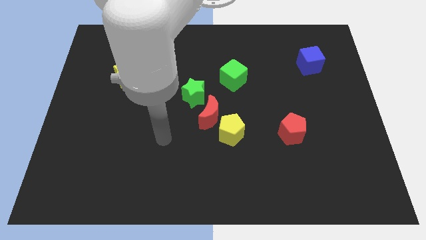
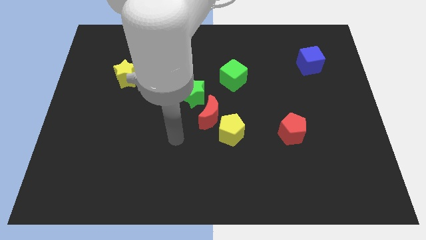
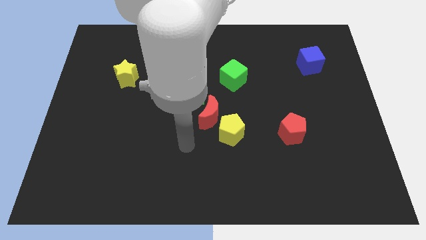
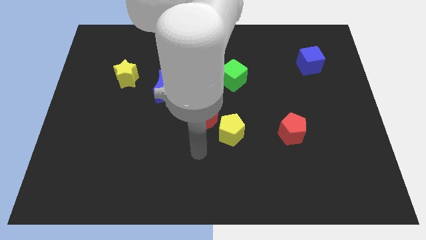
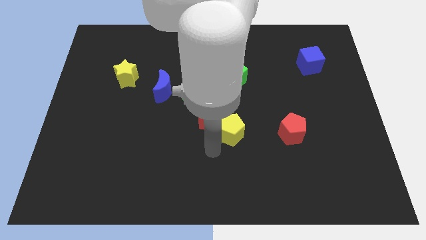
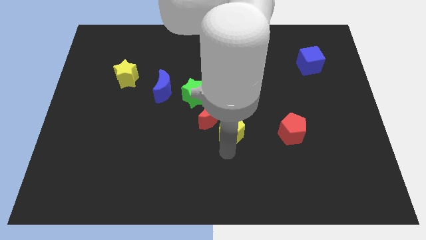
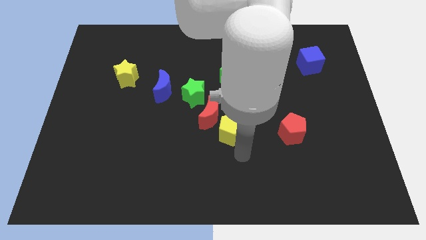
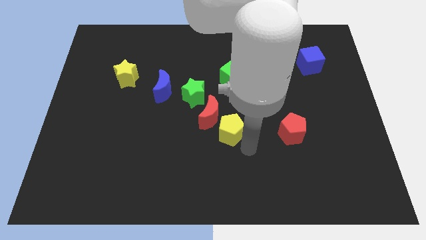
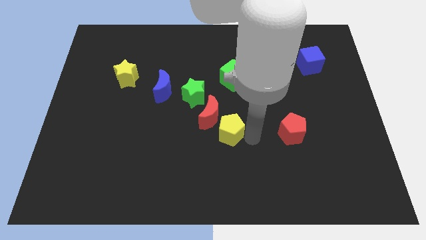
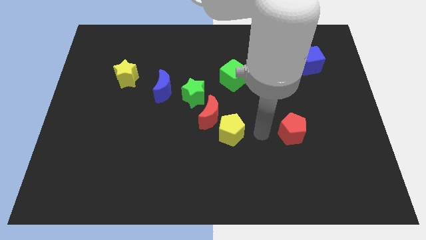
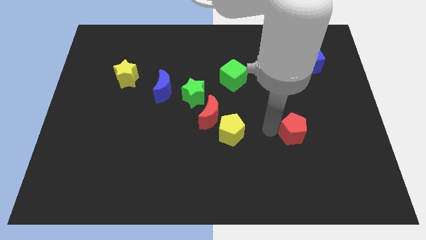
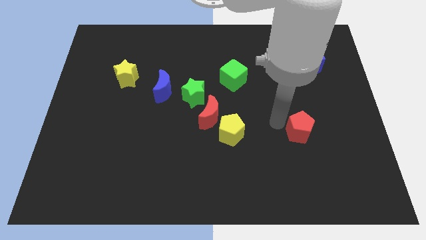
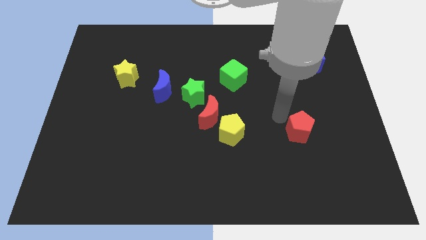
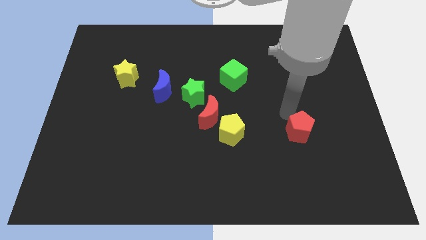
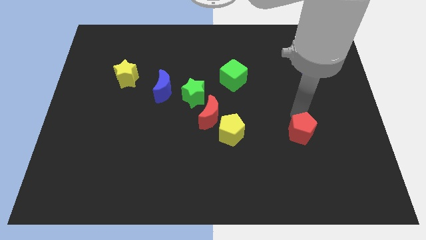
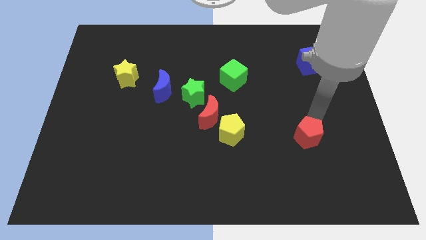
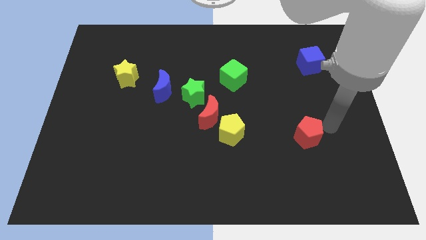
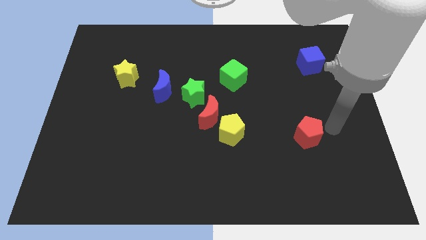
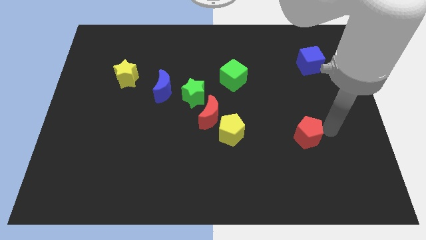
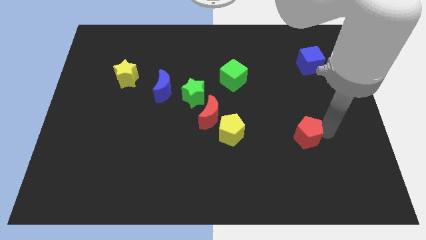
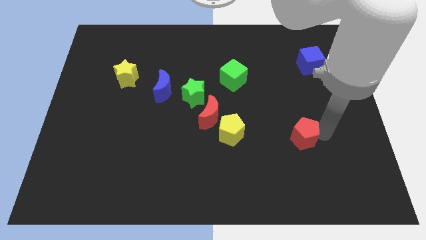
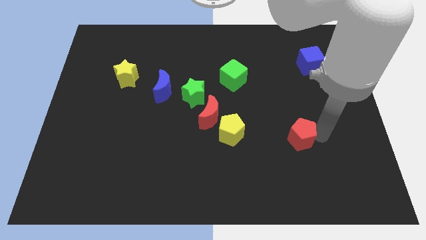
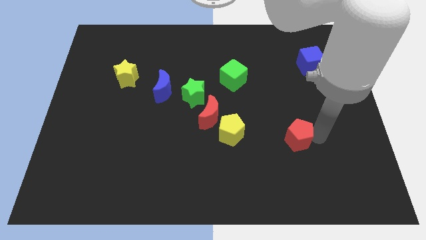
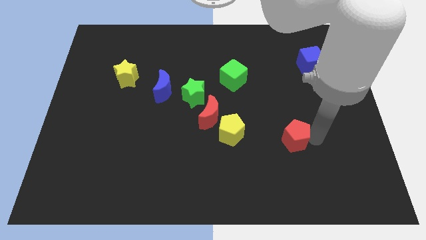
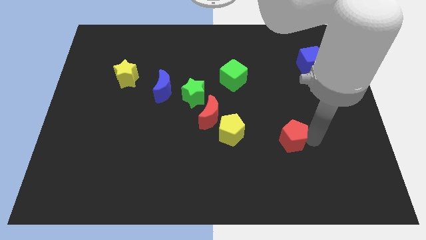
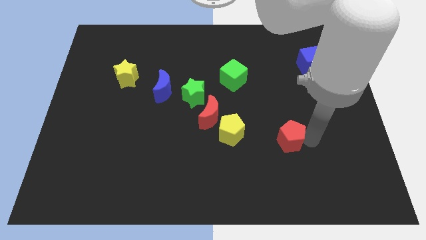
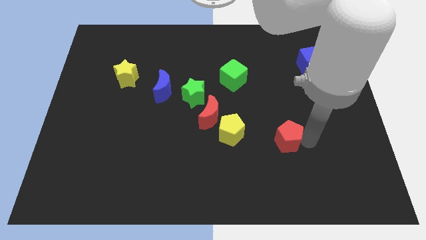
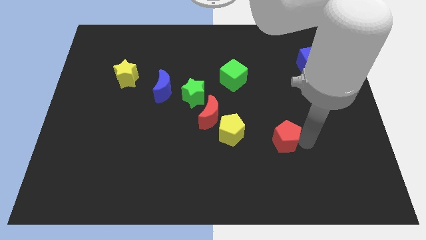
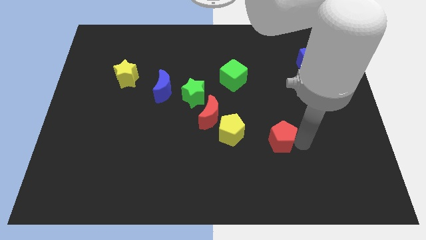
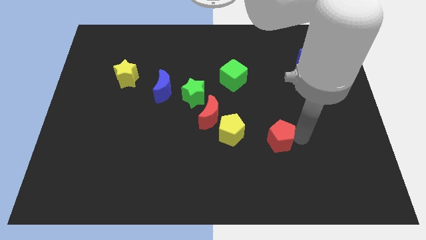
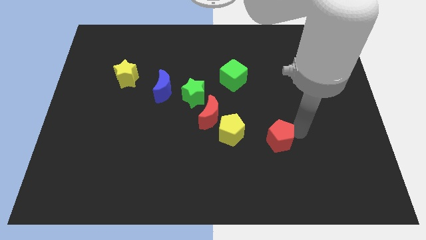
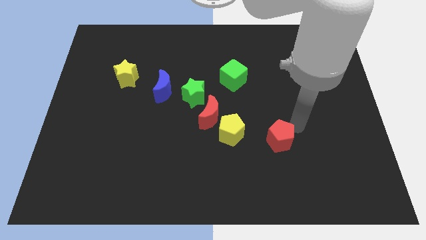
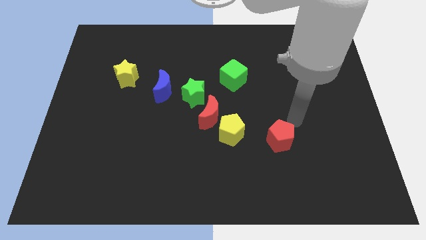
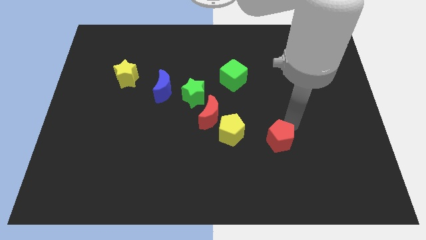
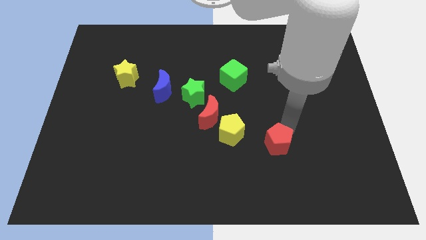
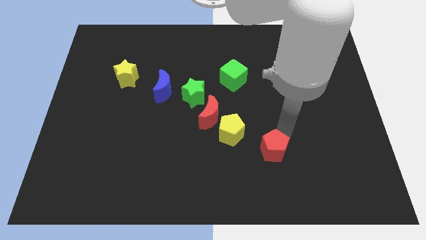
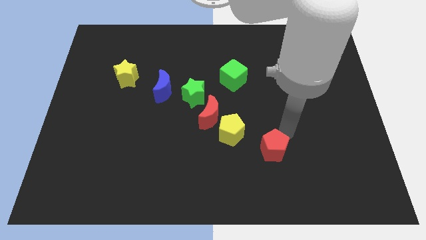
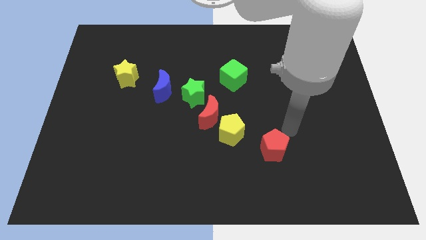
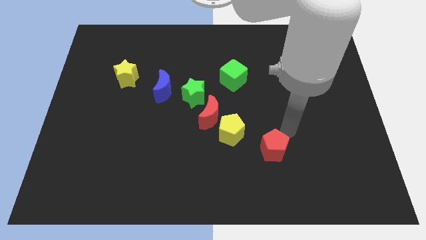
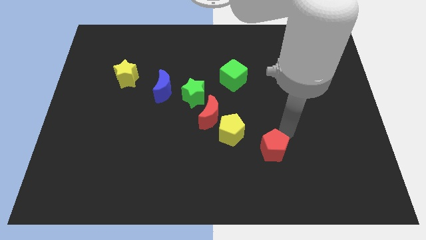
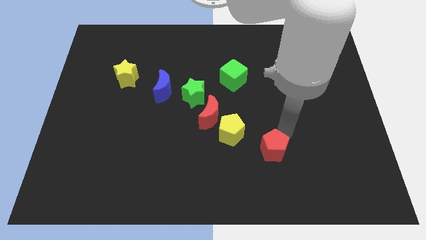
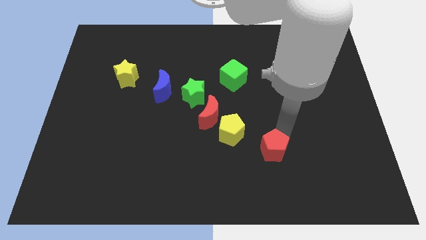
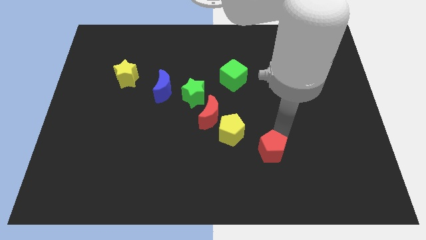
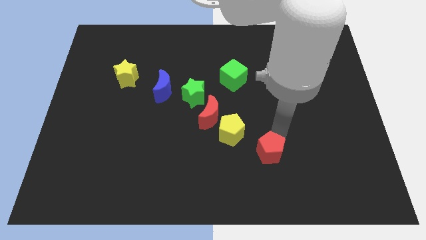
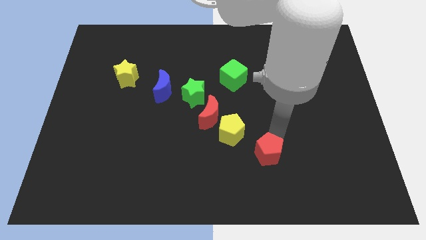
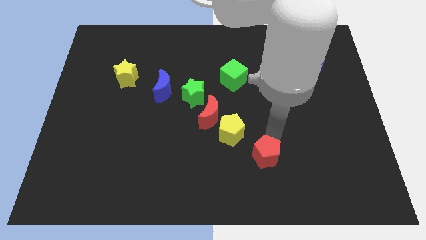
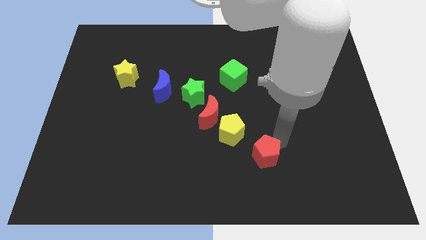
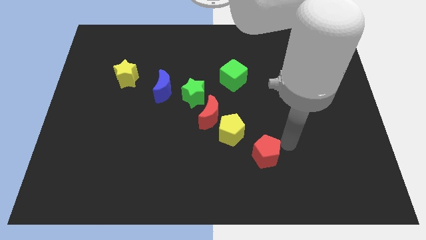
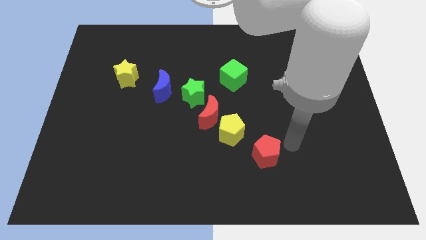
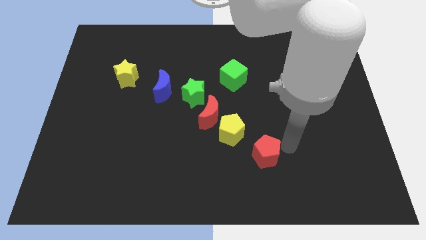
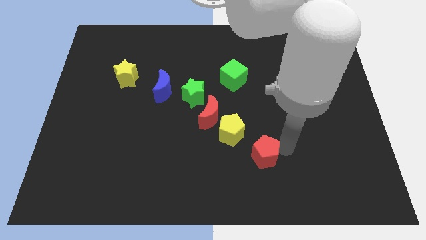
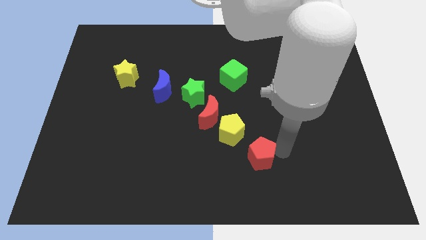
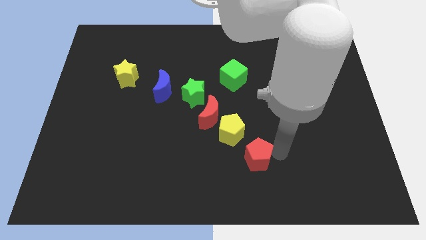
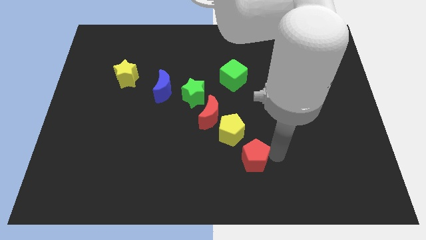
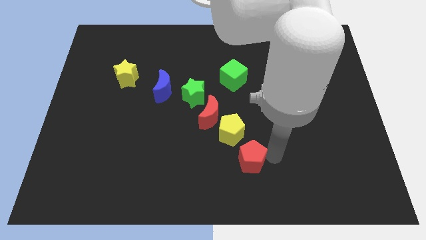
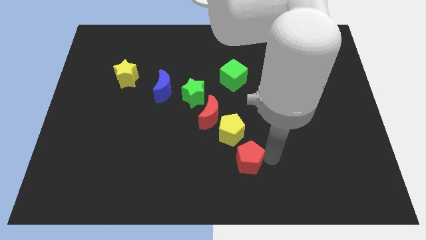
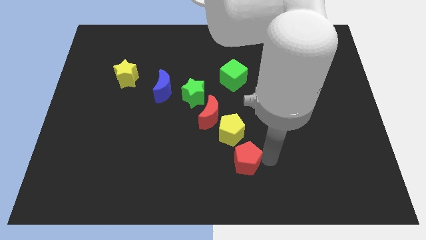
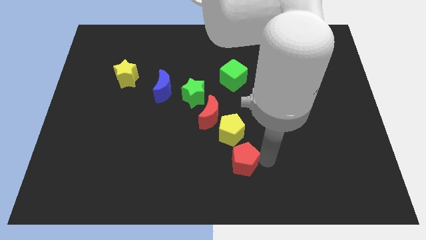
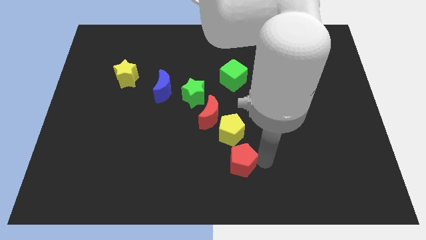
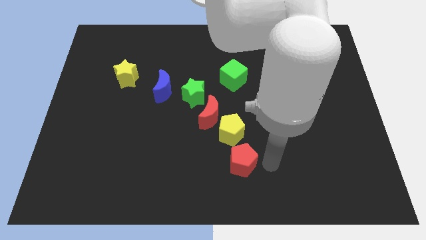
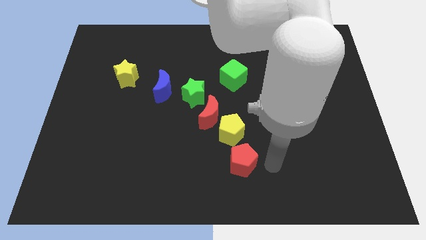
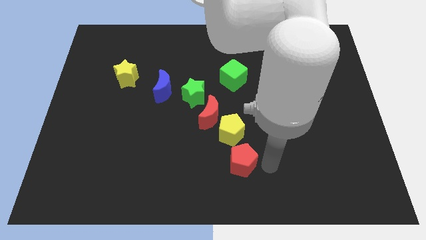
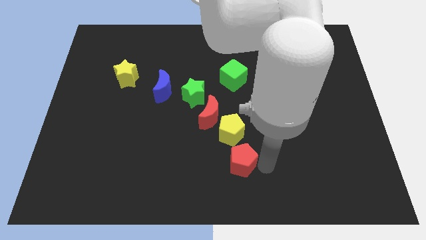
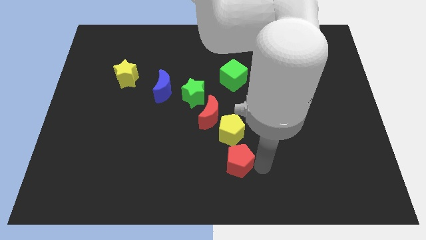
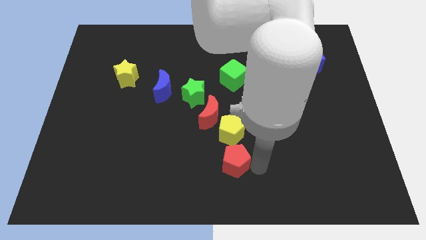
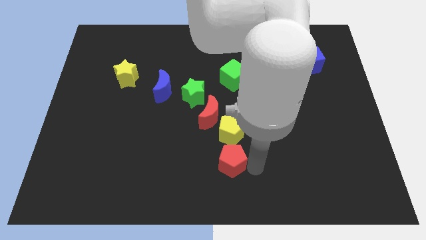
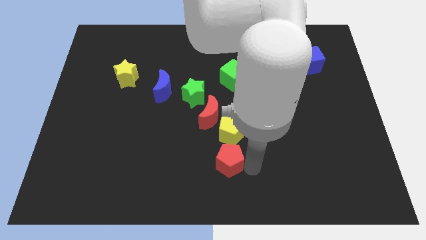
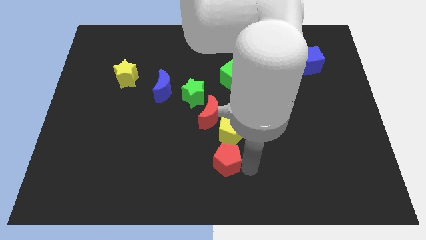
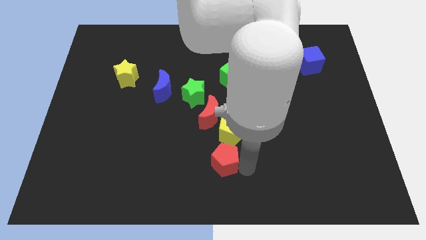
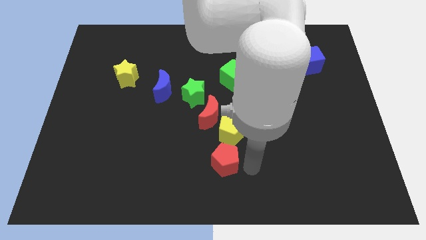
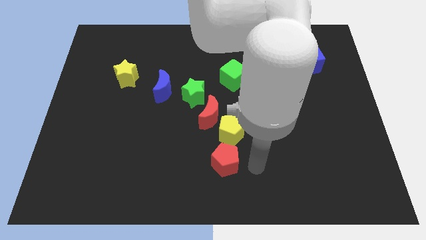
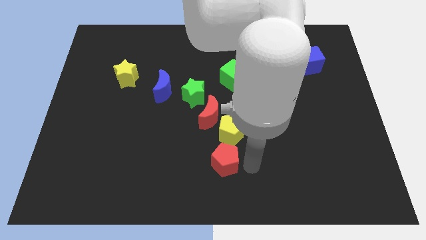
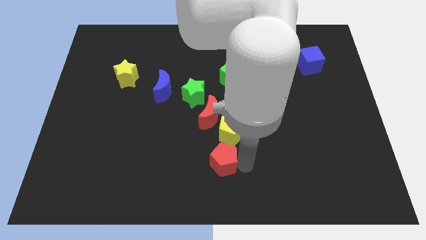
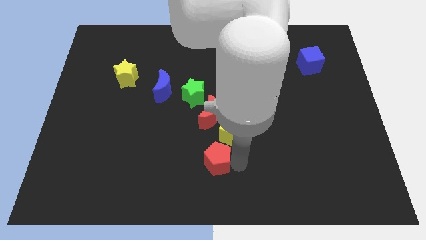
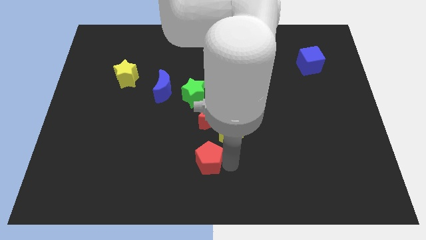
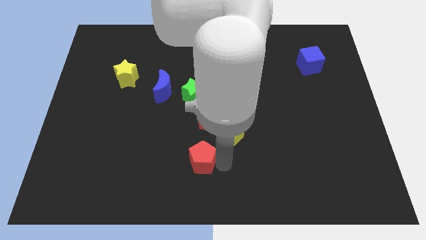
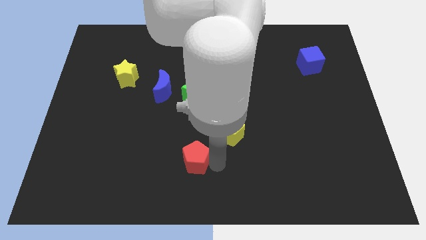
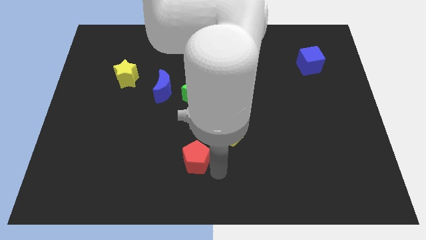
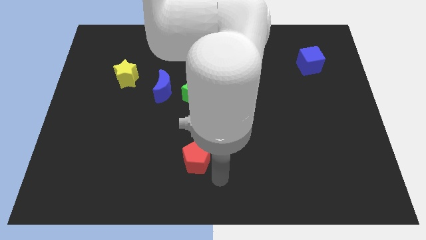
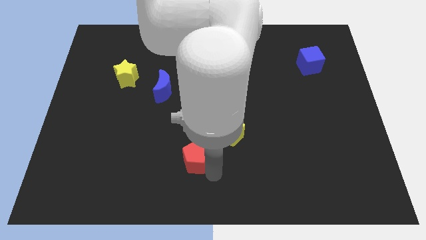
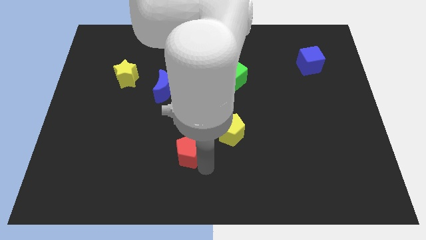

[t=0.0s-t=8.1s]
slide the red pentagon left
